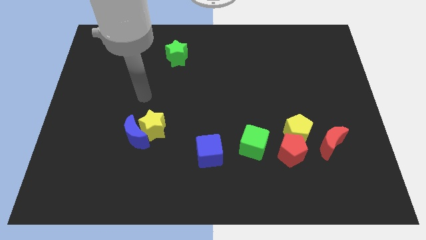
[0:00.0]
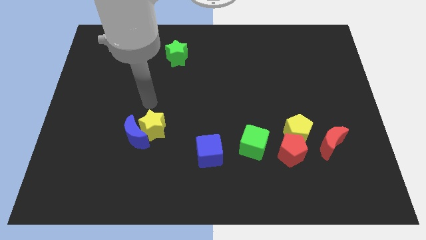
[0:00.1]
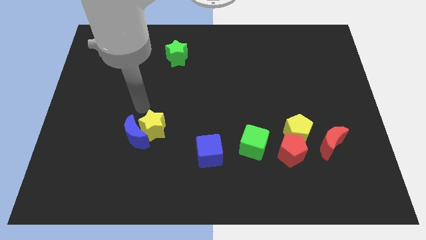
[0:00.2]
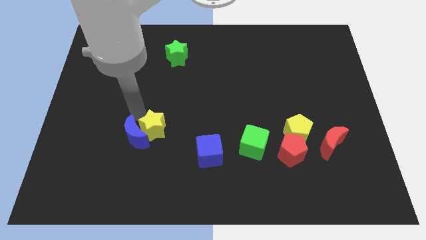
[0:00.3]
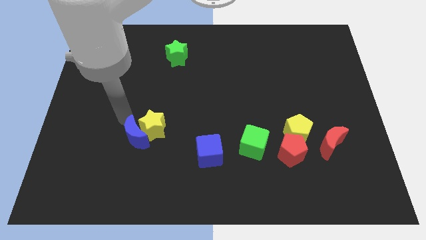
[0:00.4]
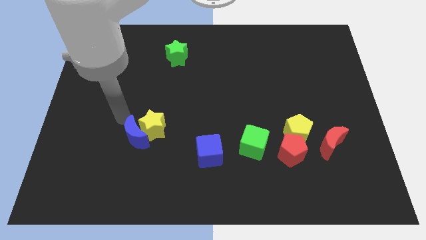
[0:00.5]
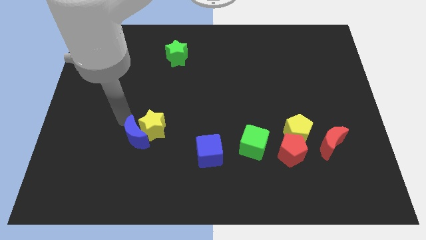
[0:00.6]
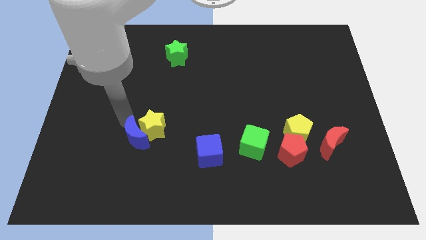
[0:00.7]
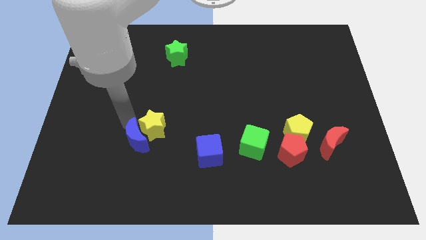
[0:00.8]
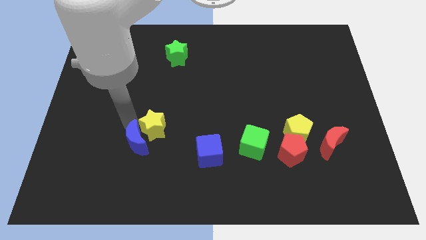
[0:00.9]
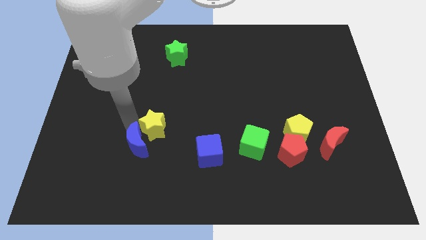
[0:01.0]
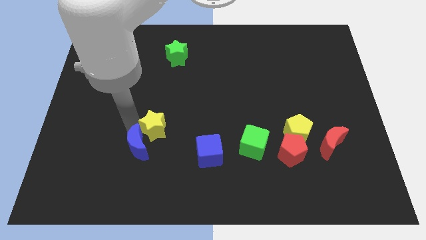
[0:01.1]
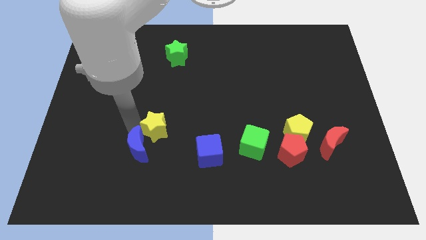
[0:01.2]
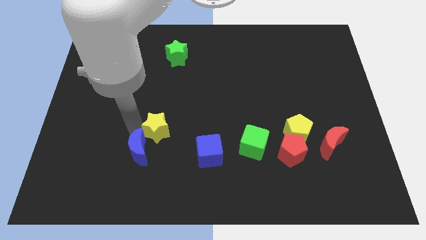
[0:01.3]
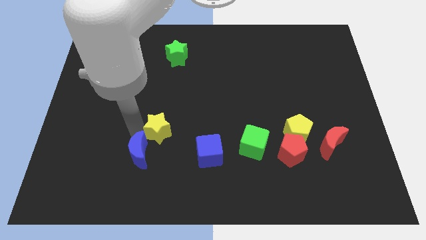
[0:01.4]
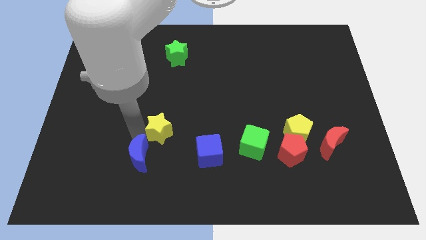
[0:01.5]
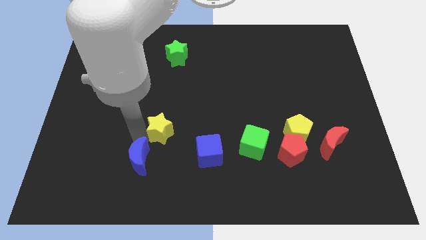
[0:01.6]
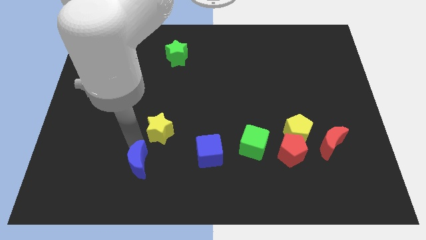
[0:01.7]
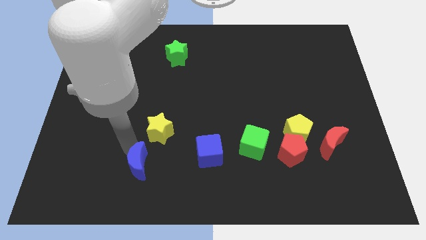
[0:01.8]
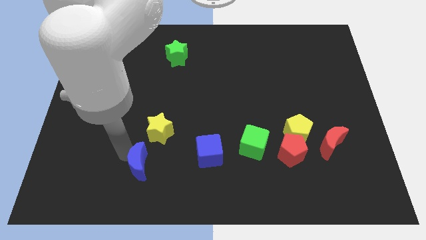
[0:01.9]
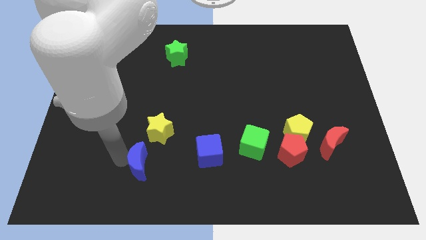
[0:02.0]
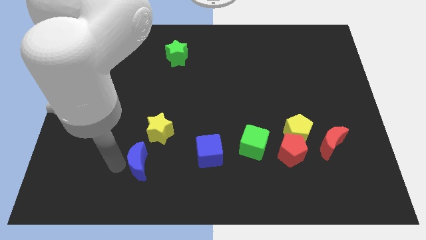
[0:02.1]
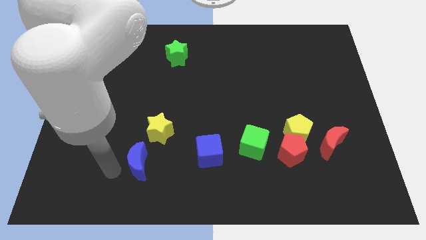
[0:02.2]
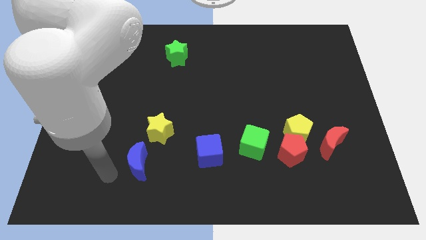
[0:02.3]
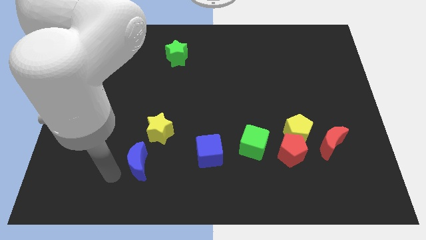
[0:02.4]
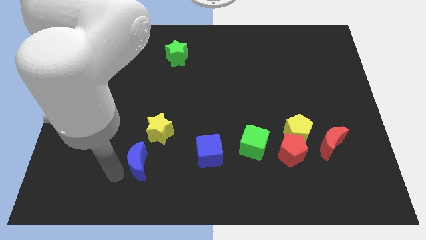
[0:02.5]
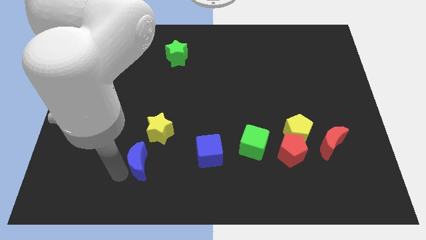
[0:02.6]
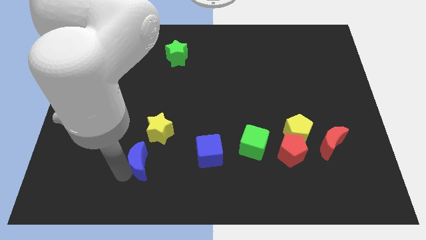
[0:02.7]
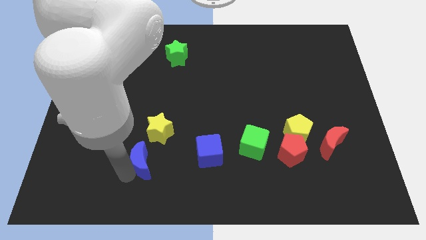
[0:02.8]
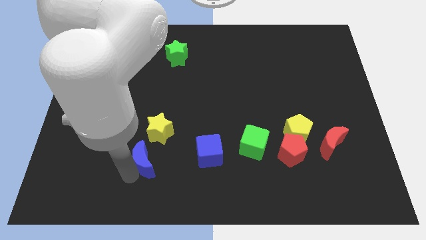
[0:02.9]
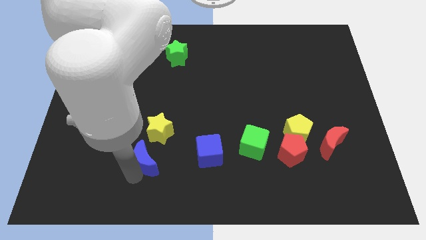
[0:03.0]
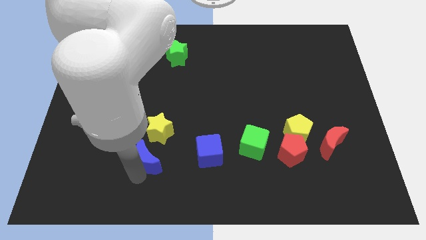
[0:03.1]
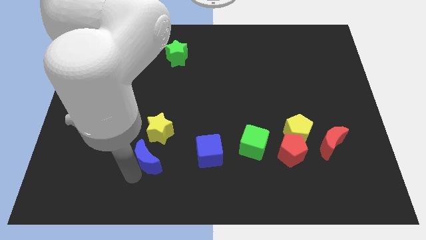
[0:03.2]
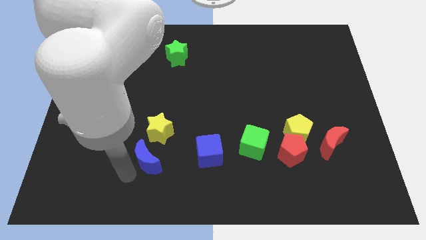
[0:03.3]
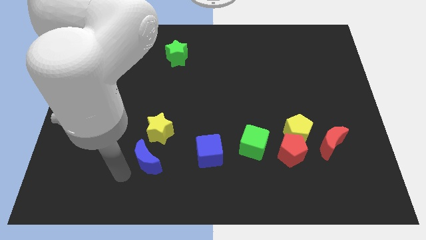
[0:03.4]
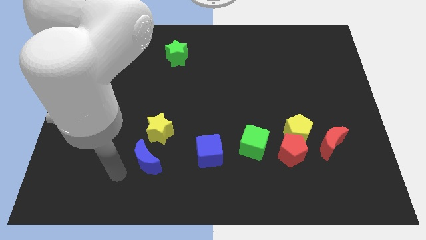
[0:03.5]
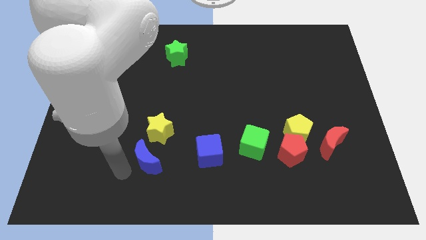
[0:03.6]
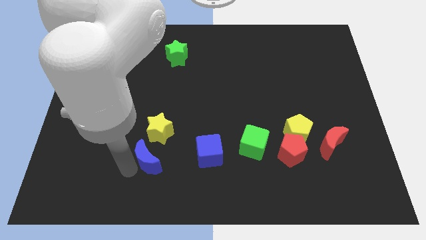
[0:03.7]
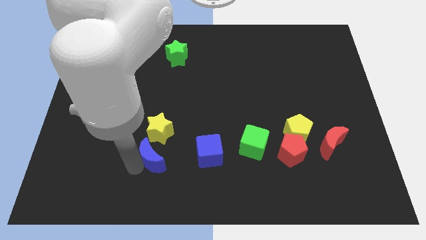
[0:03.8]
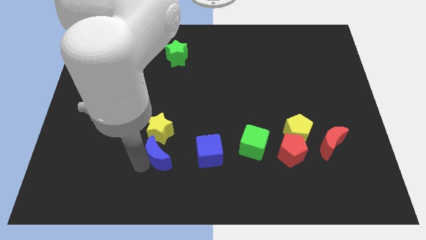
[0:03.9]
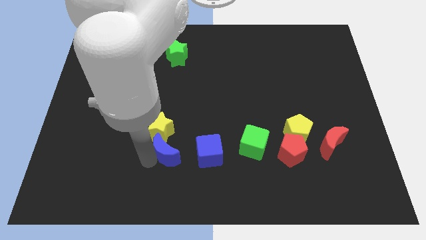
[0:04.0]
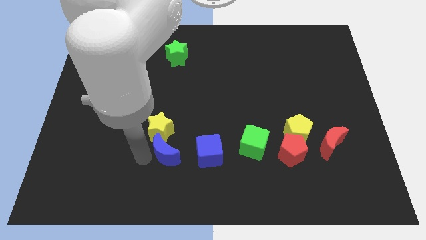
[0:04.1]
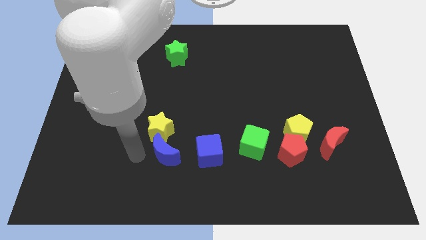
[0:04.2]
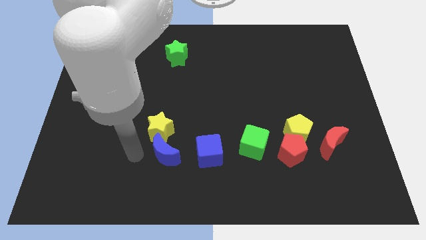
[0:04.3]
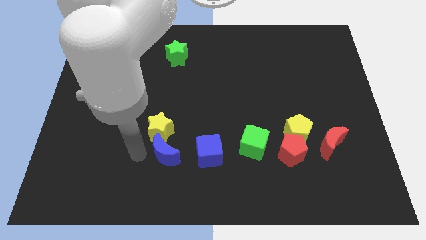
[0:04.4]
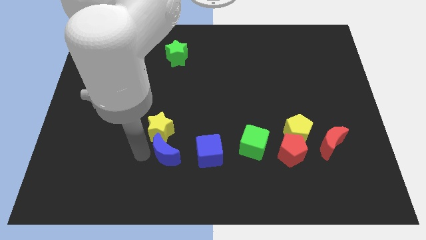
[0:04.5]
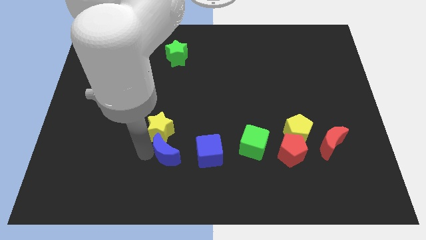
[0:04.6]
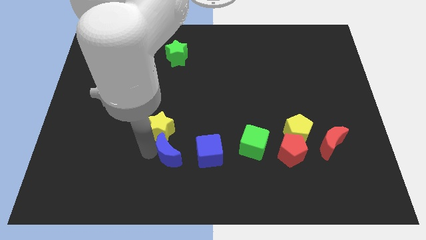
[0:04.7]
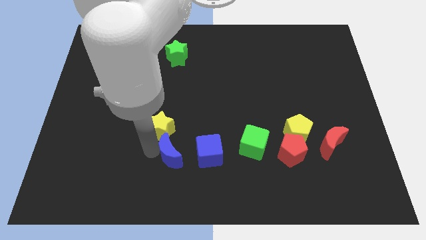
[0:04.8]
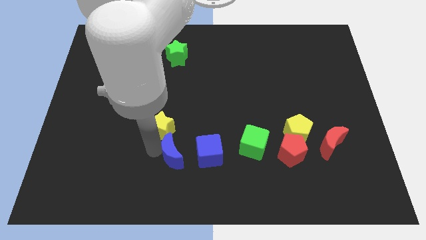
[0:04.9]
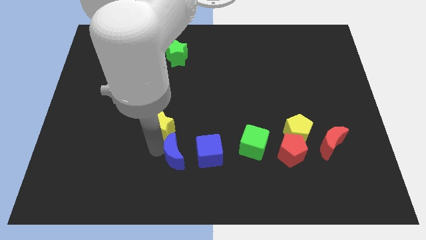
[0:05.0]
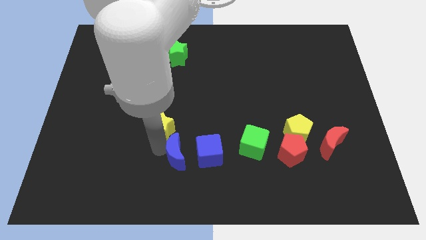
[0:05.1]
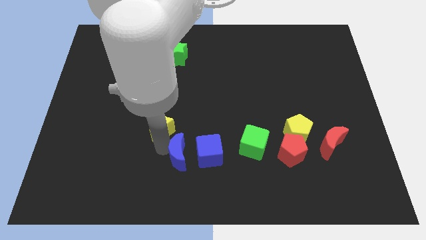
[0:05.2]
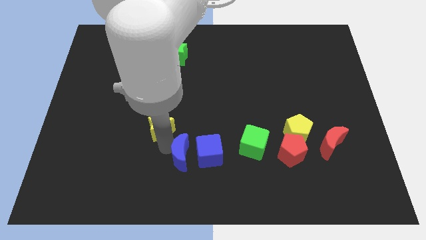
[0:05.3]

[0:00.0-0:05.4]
put the blue moon to the blue cube

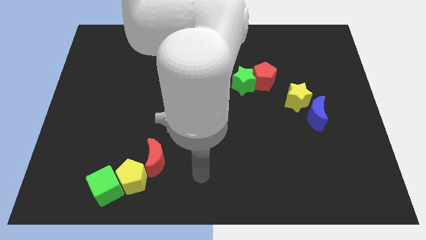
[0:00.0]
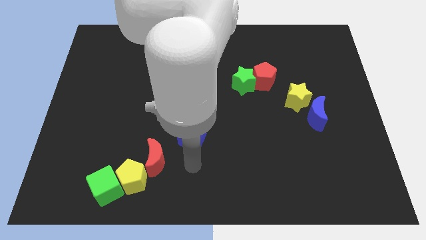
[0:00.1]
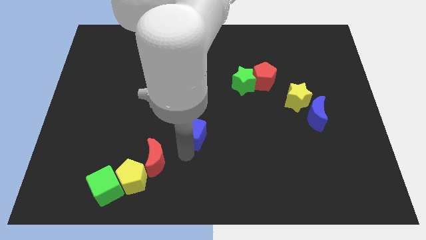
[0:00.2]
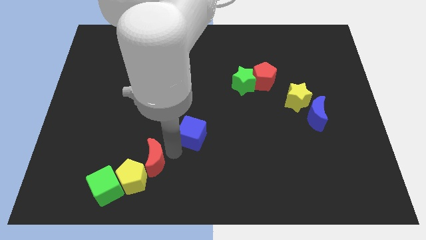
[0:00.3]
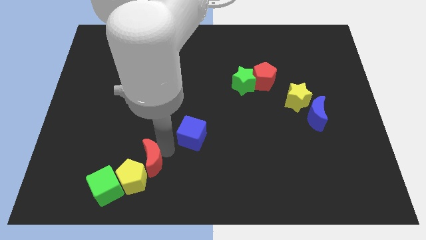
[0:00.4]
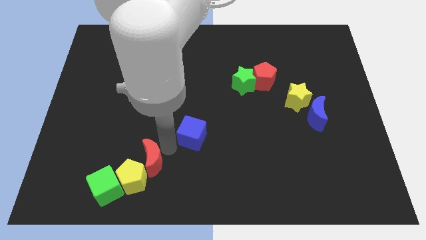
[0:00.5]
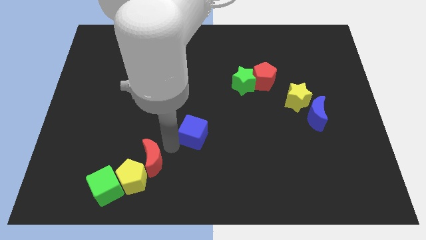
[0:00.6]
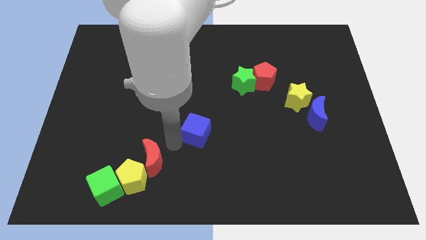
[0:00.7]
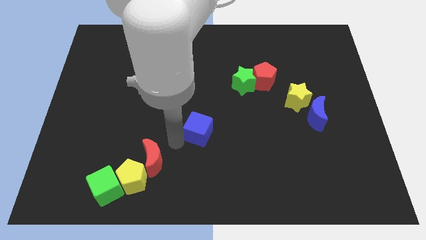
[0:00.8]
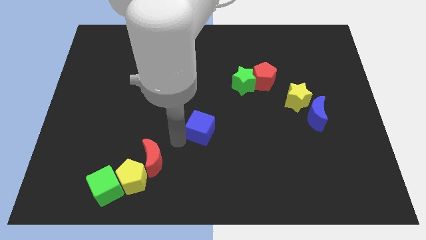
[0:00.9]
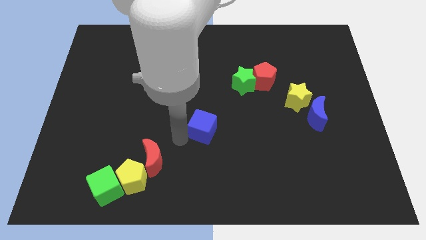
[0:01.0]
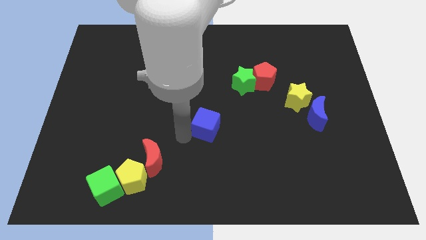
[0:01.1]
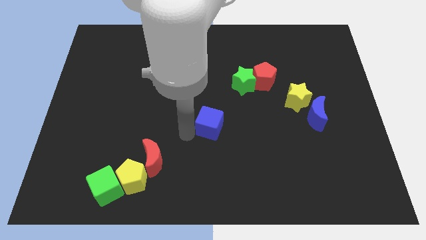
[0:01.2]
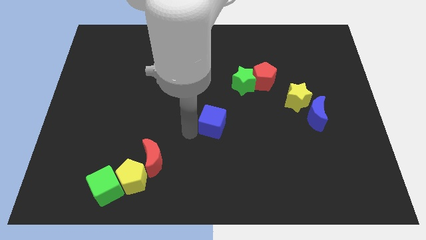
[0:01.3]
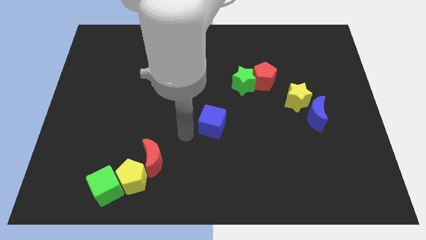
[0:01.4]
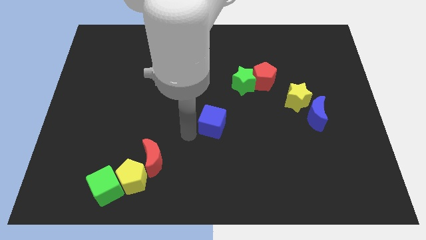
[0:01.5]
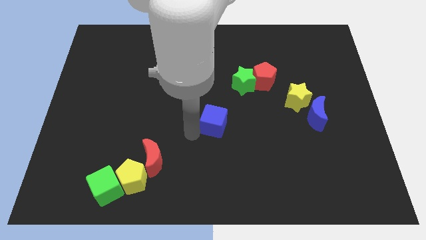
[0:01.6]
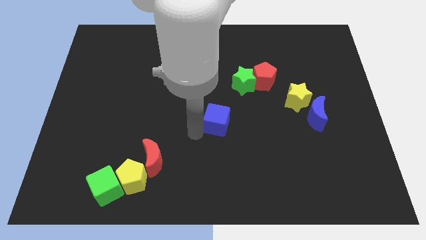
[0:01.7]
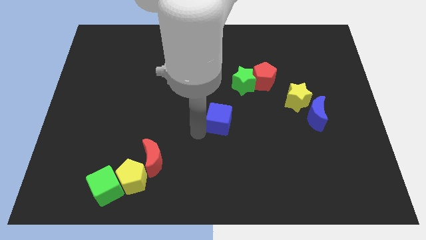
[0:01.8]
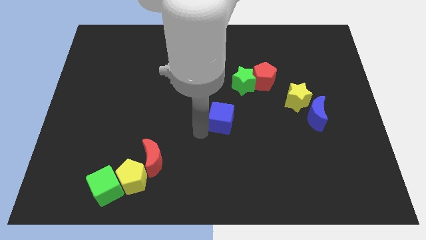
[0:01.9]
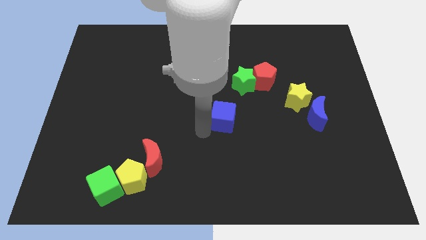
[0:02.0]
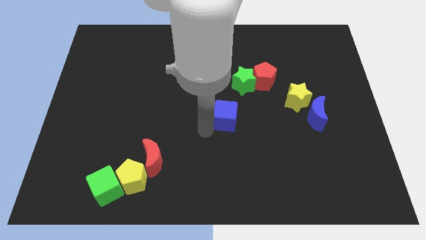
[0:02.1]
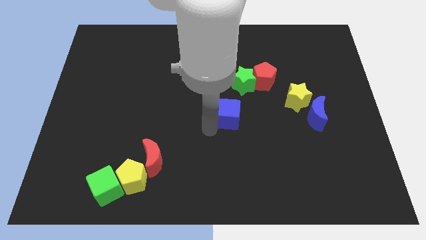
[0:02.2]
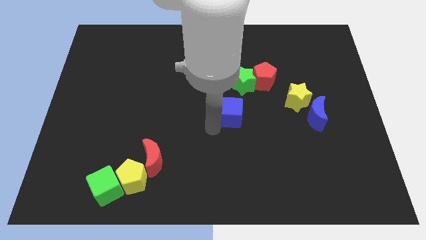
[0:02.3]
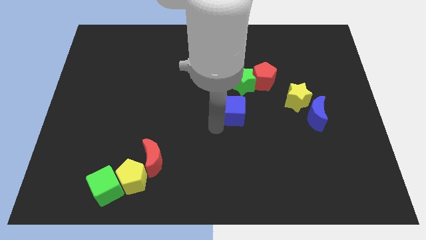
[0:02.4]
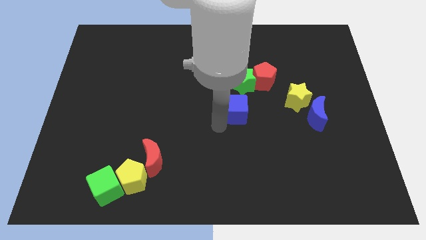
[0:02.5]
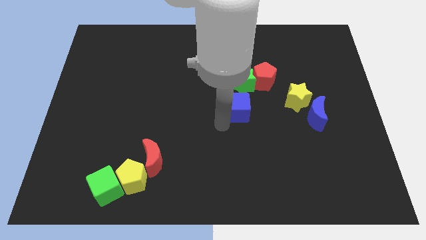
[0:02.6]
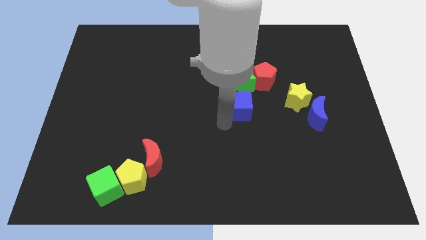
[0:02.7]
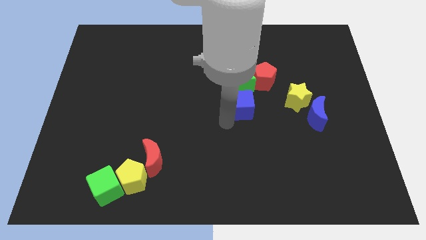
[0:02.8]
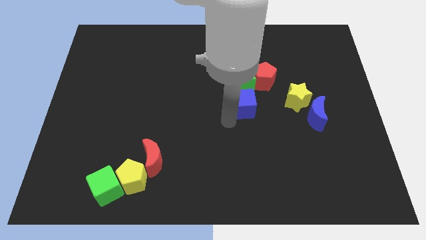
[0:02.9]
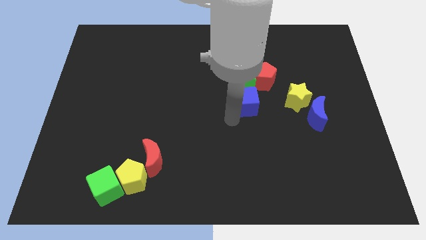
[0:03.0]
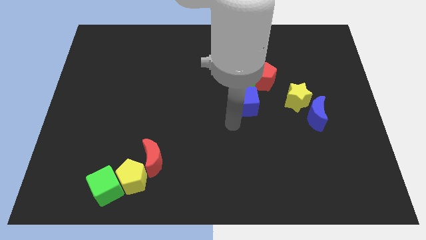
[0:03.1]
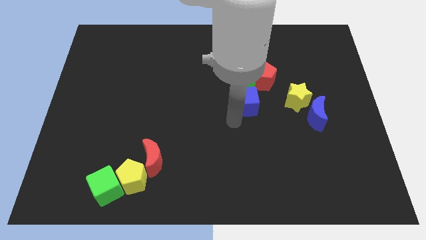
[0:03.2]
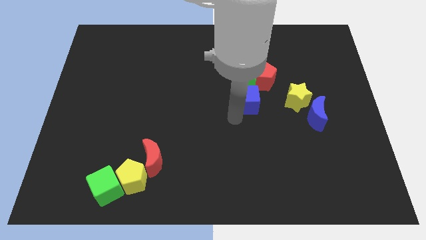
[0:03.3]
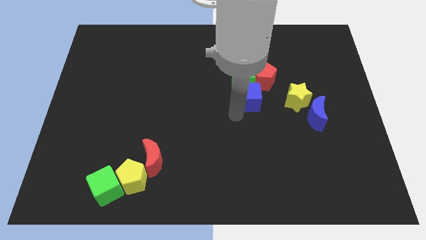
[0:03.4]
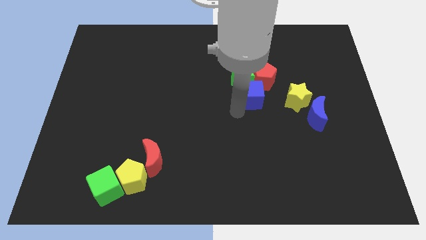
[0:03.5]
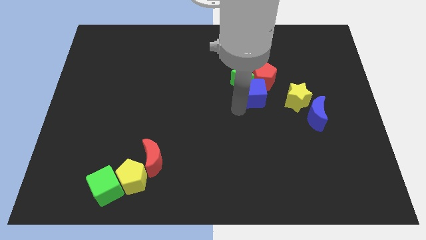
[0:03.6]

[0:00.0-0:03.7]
move the blue cube towards the red pentagon
